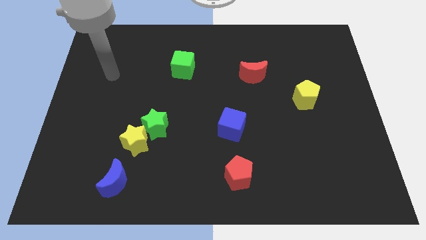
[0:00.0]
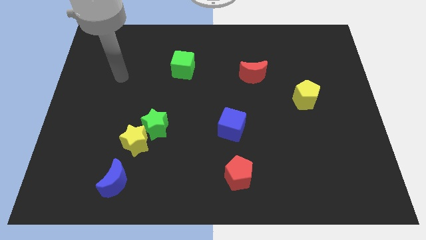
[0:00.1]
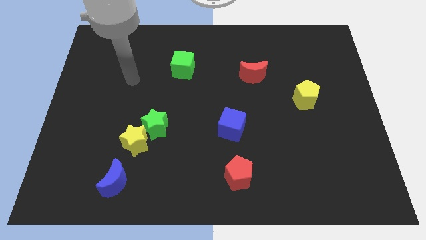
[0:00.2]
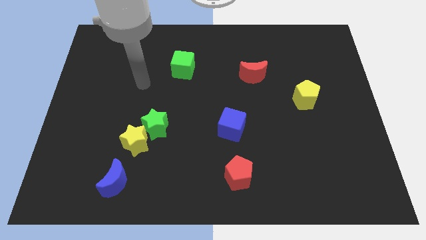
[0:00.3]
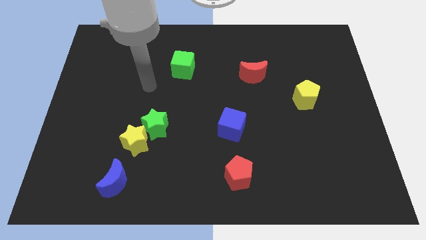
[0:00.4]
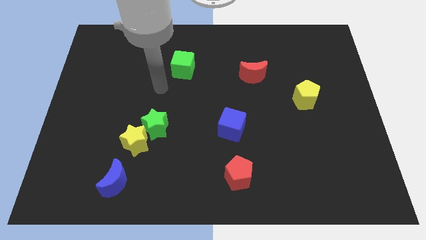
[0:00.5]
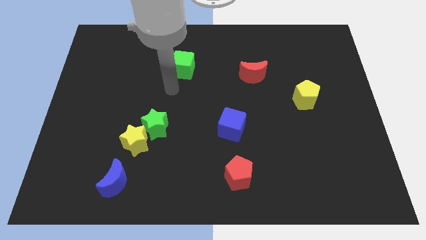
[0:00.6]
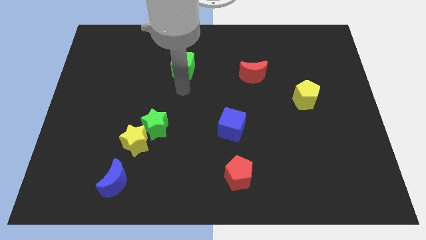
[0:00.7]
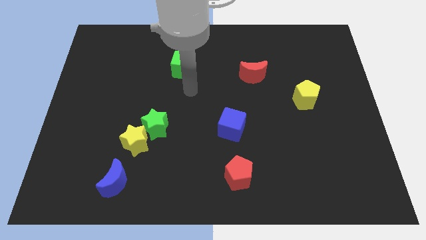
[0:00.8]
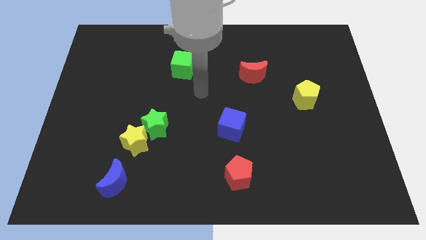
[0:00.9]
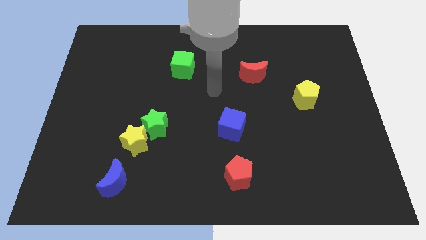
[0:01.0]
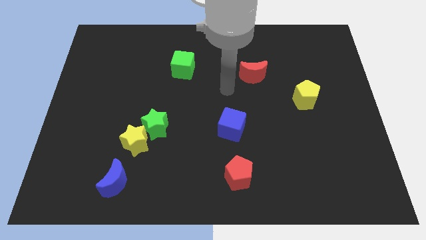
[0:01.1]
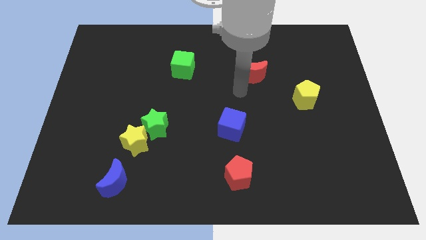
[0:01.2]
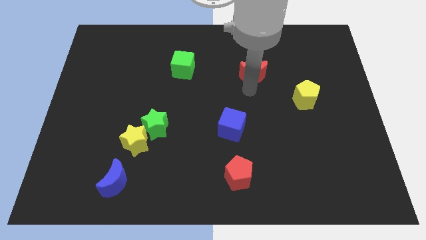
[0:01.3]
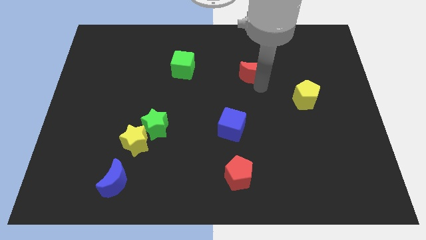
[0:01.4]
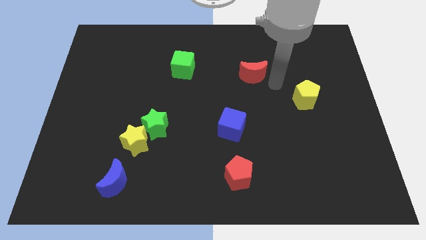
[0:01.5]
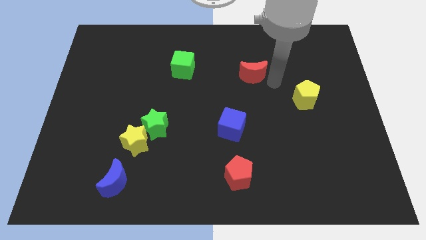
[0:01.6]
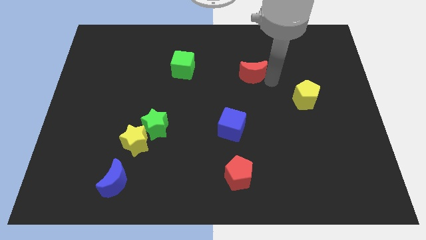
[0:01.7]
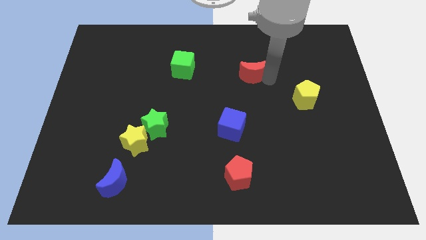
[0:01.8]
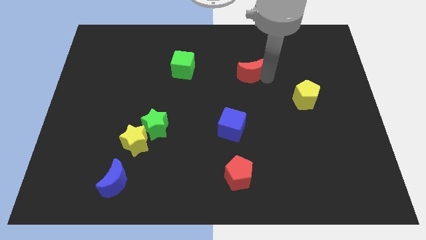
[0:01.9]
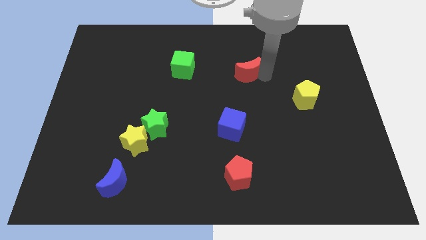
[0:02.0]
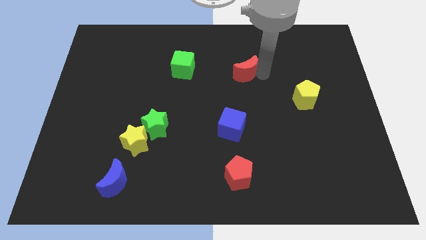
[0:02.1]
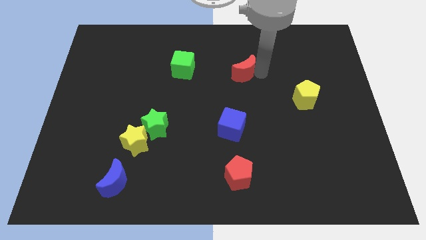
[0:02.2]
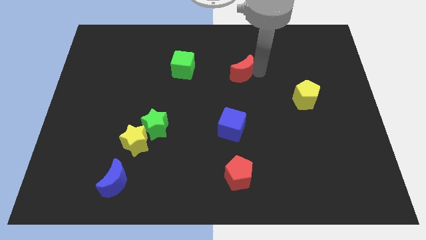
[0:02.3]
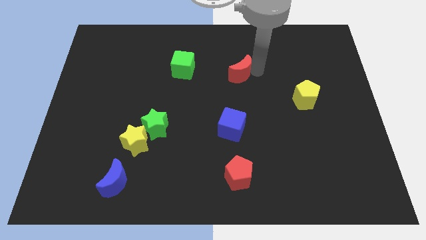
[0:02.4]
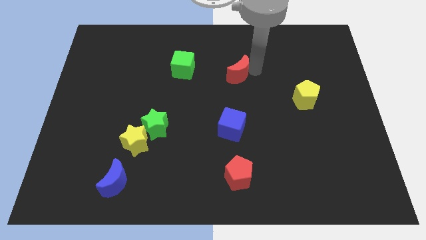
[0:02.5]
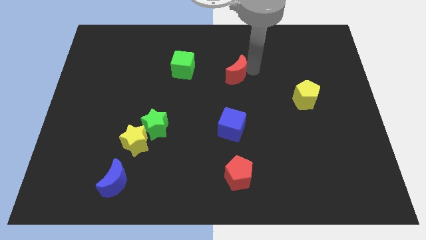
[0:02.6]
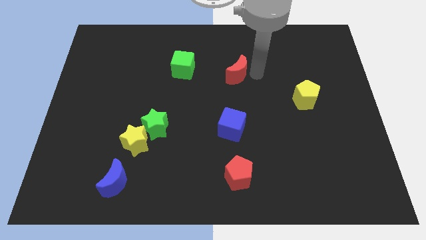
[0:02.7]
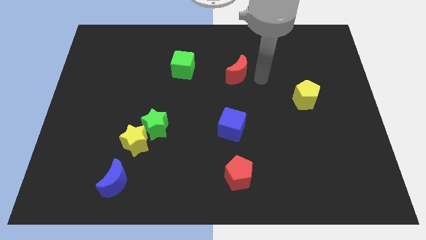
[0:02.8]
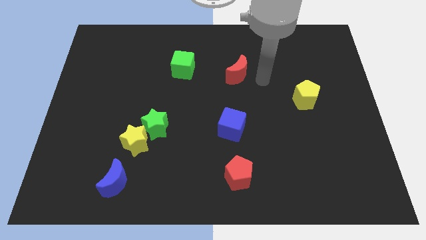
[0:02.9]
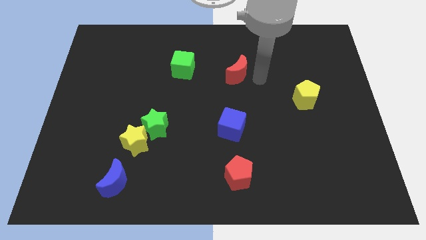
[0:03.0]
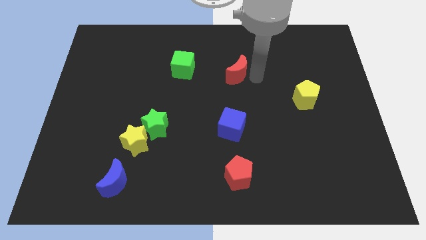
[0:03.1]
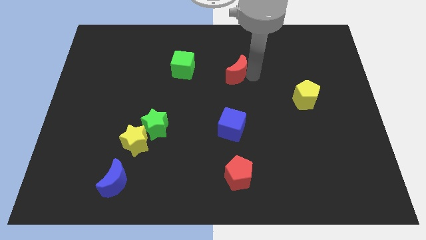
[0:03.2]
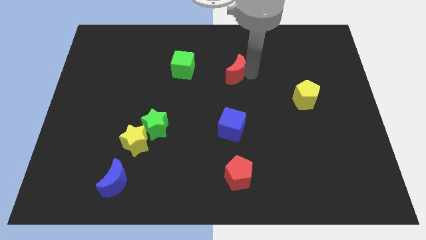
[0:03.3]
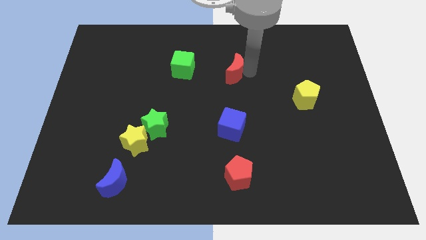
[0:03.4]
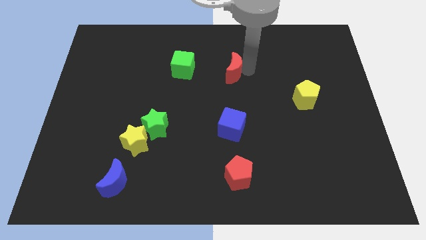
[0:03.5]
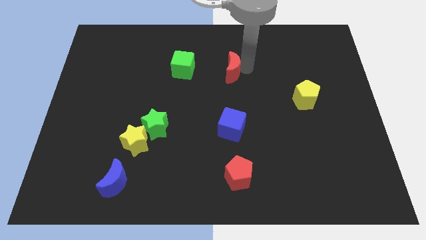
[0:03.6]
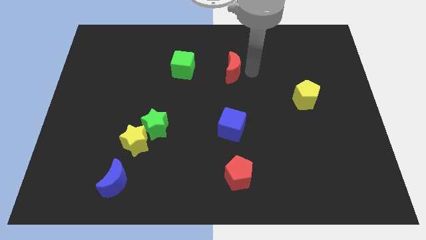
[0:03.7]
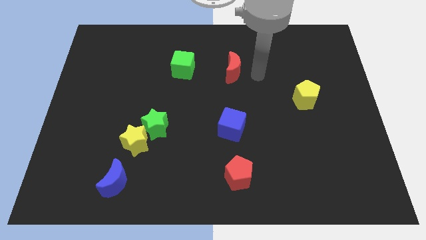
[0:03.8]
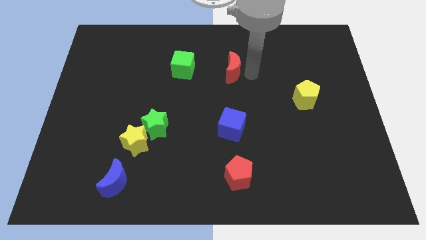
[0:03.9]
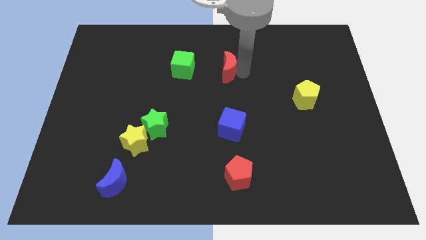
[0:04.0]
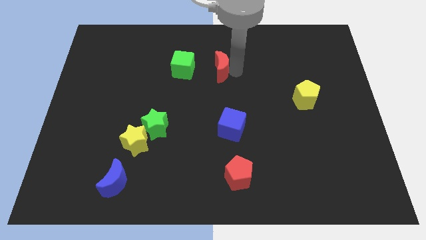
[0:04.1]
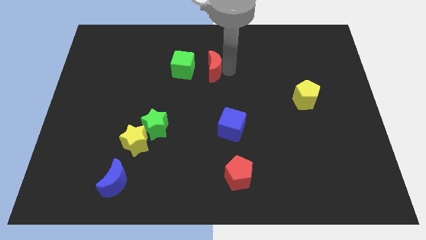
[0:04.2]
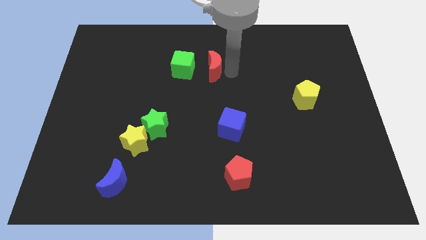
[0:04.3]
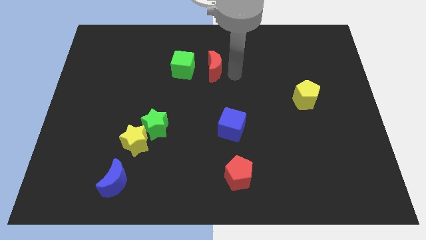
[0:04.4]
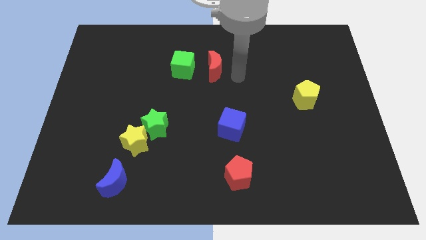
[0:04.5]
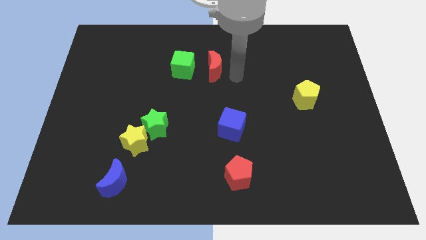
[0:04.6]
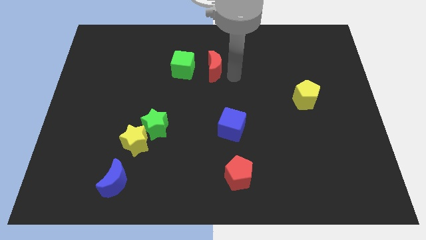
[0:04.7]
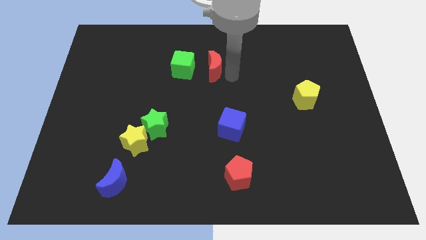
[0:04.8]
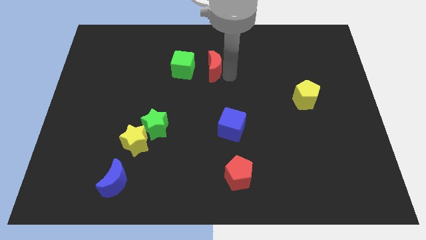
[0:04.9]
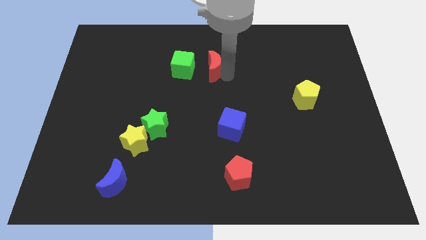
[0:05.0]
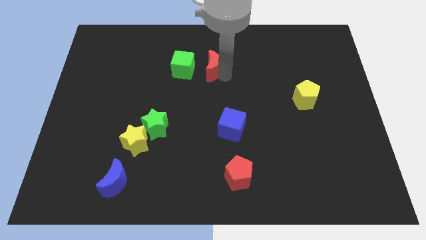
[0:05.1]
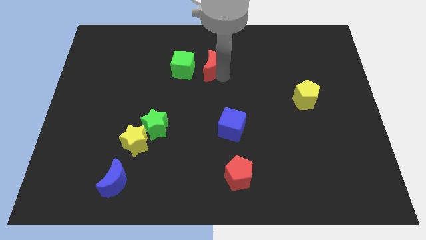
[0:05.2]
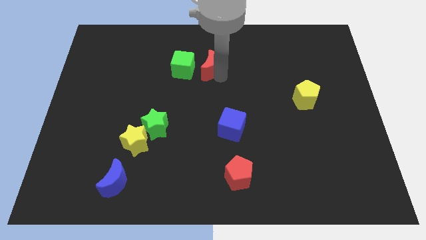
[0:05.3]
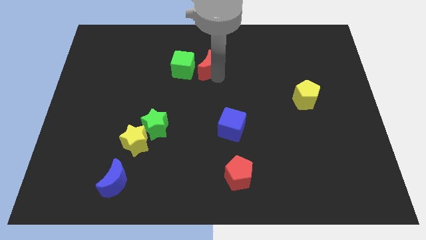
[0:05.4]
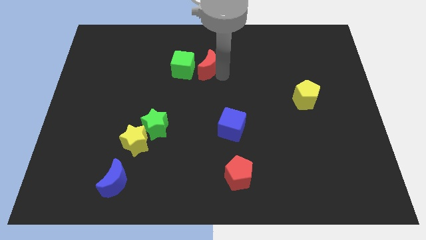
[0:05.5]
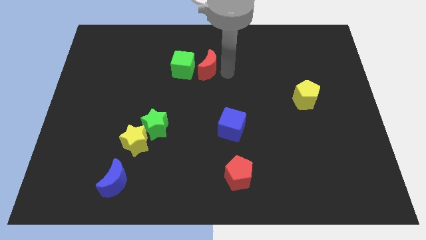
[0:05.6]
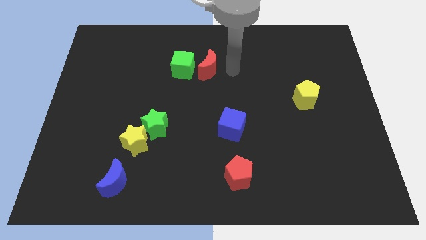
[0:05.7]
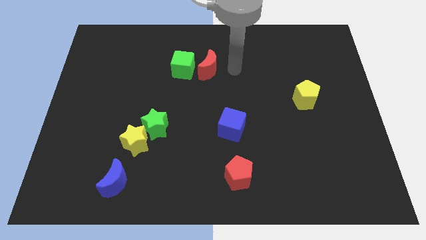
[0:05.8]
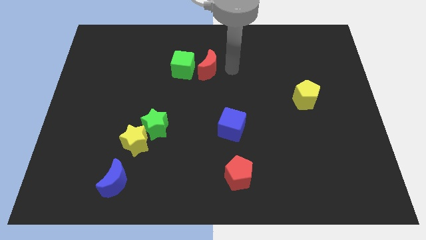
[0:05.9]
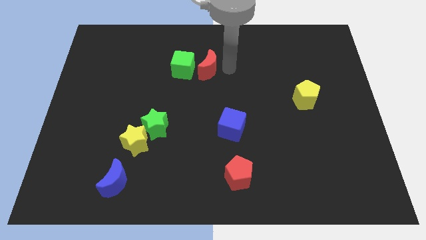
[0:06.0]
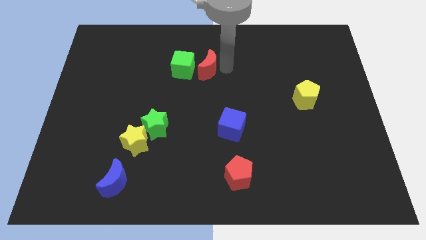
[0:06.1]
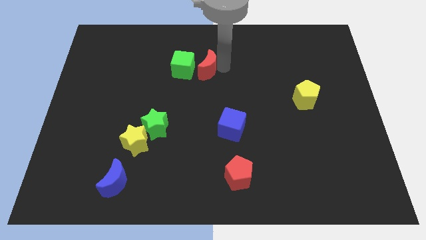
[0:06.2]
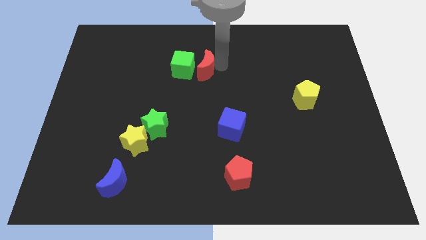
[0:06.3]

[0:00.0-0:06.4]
push the red moon next to the green cube

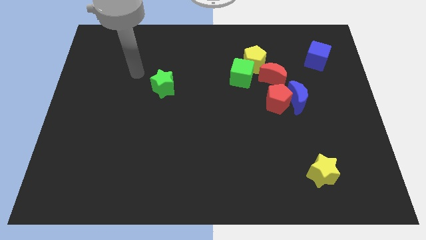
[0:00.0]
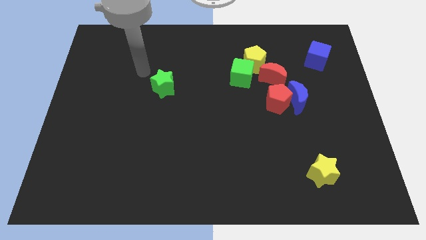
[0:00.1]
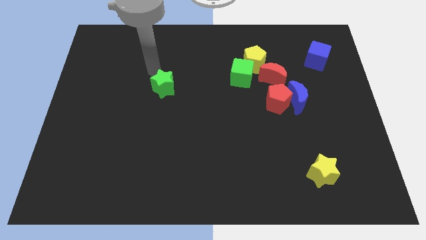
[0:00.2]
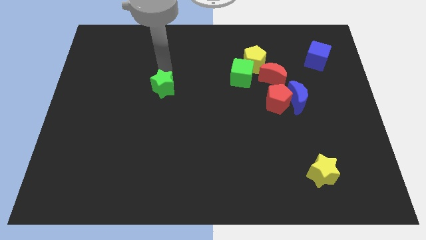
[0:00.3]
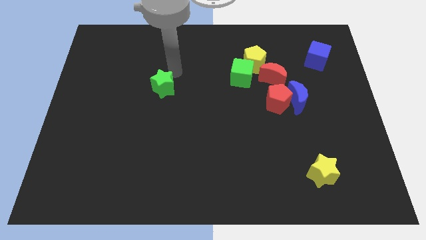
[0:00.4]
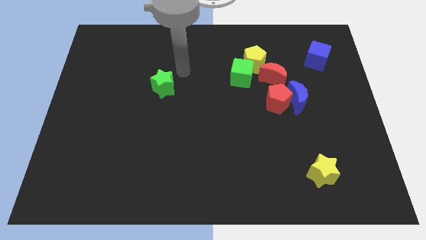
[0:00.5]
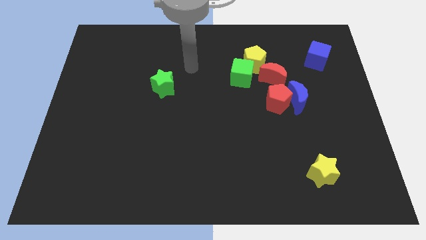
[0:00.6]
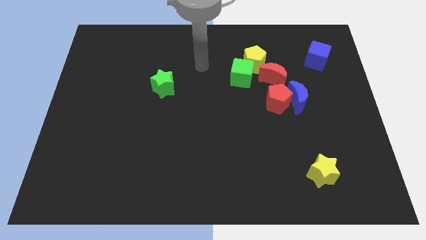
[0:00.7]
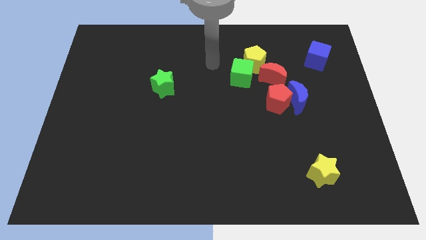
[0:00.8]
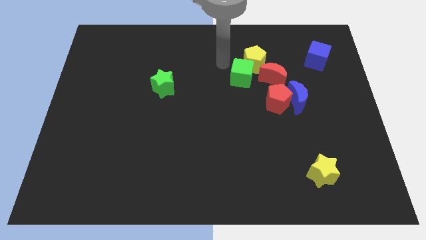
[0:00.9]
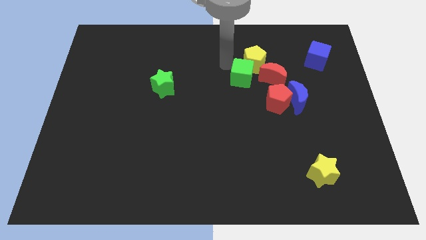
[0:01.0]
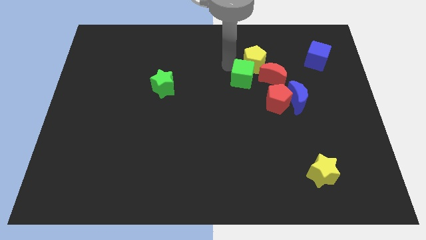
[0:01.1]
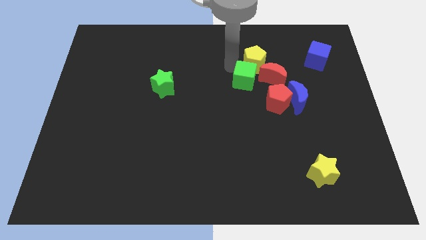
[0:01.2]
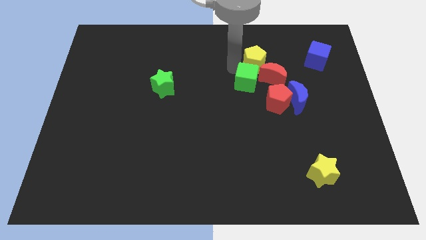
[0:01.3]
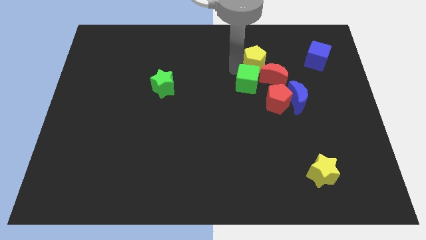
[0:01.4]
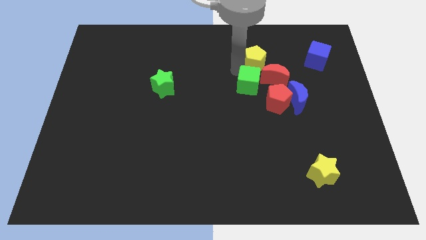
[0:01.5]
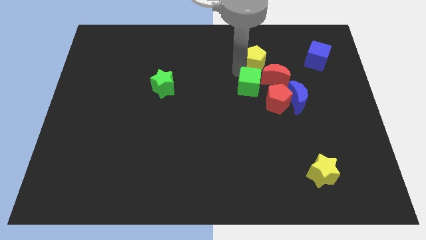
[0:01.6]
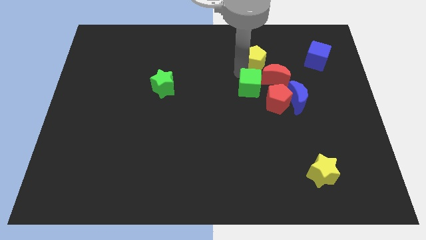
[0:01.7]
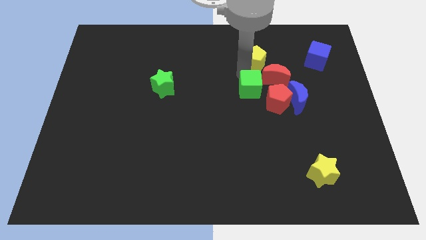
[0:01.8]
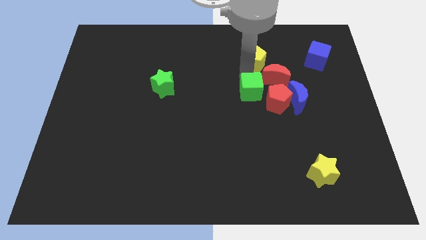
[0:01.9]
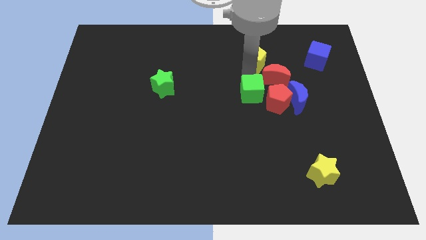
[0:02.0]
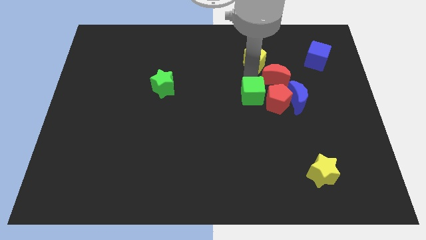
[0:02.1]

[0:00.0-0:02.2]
put the green cube next to the red pentagon
